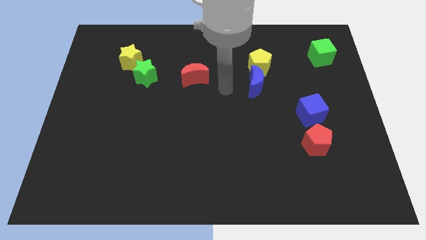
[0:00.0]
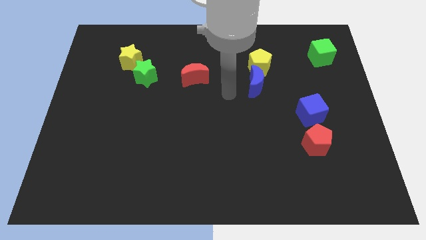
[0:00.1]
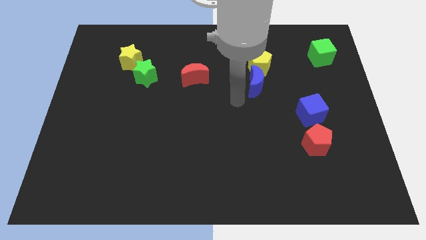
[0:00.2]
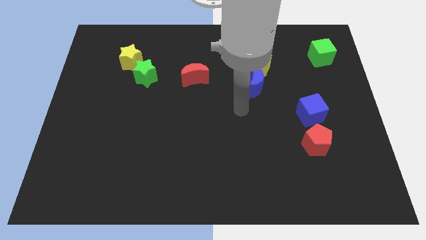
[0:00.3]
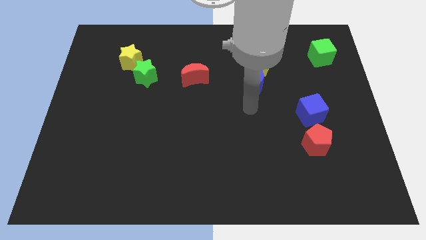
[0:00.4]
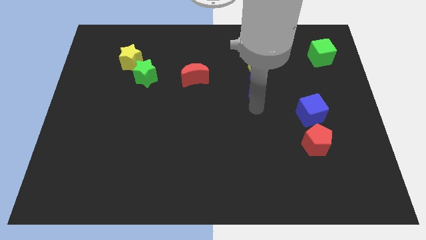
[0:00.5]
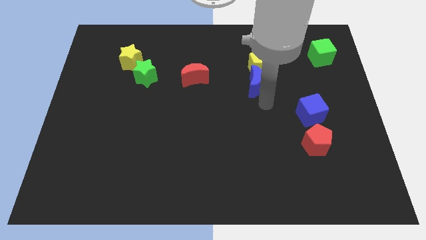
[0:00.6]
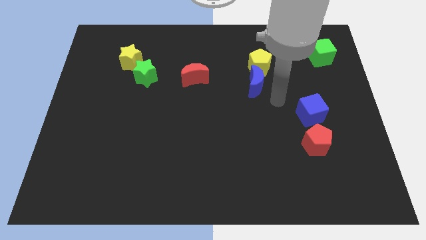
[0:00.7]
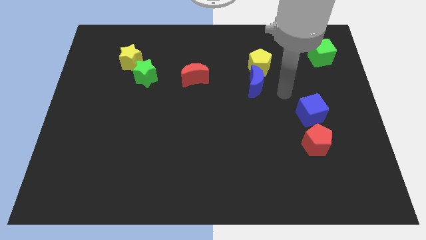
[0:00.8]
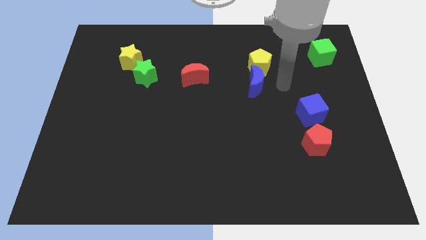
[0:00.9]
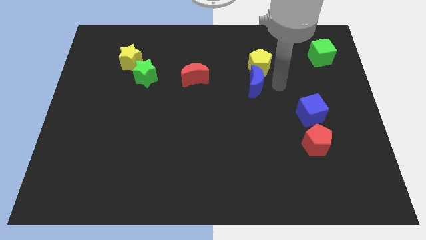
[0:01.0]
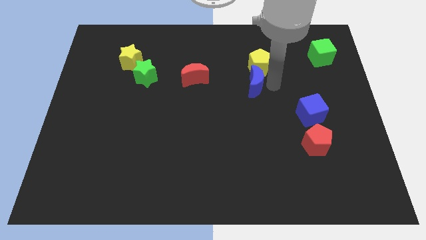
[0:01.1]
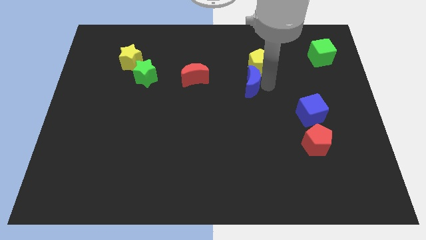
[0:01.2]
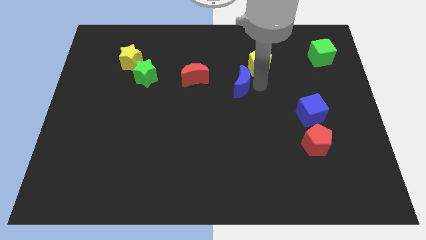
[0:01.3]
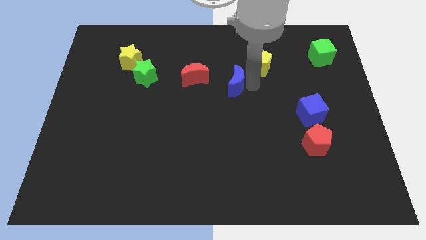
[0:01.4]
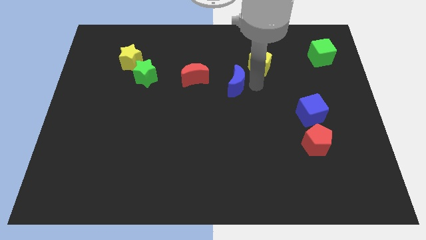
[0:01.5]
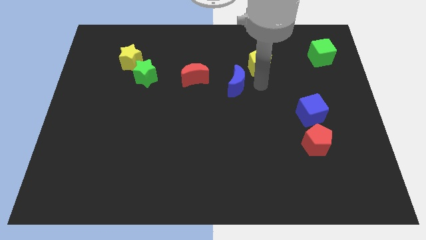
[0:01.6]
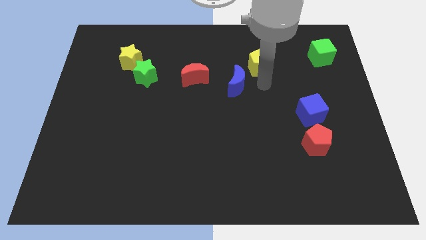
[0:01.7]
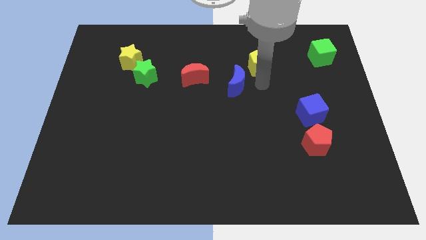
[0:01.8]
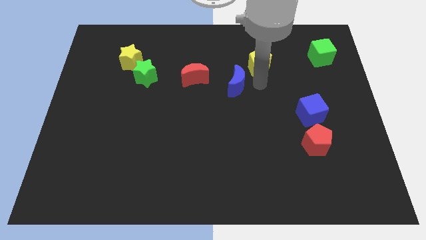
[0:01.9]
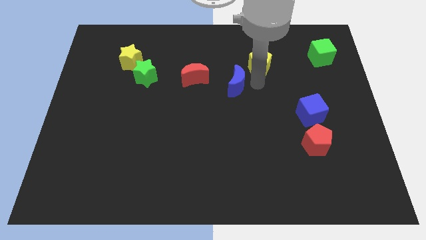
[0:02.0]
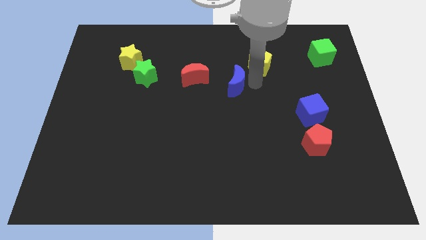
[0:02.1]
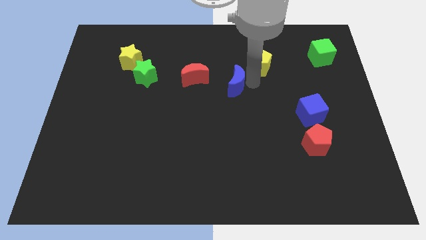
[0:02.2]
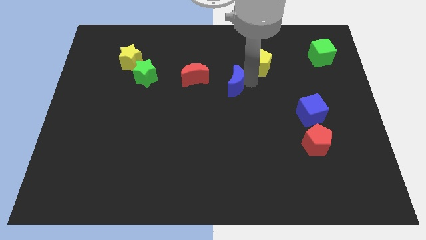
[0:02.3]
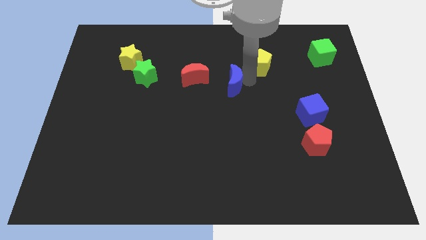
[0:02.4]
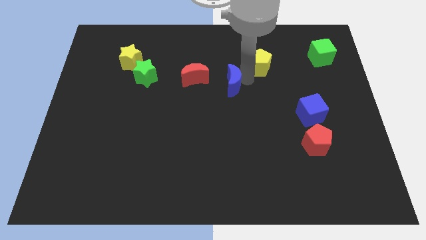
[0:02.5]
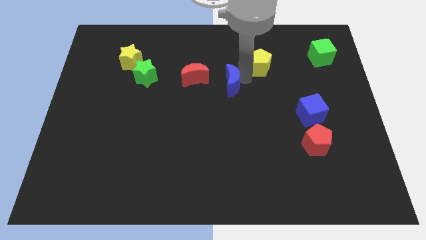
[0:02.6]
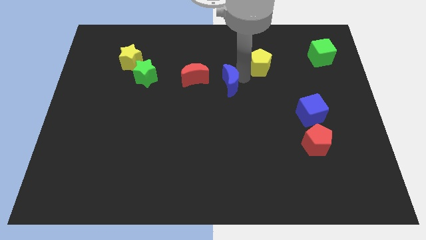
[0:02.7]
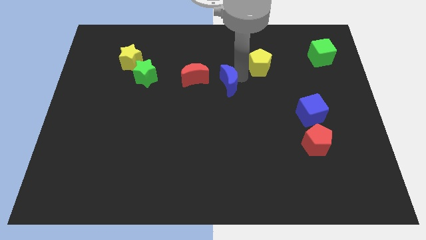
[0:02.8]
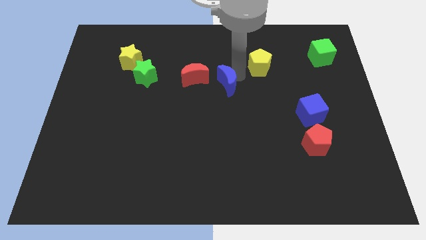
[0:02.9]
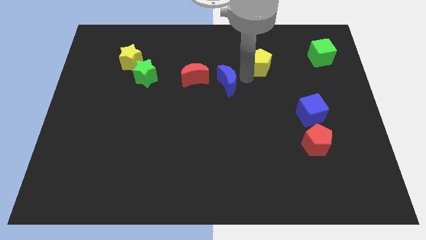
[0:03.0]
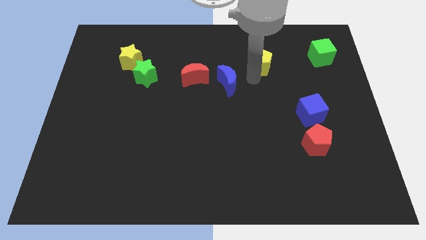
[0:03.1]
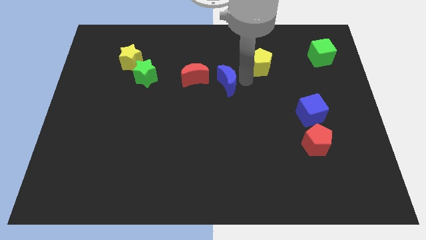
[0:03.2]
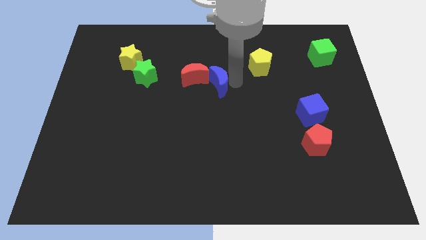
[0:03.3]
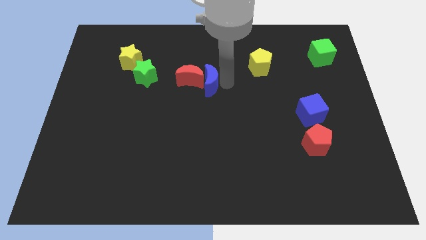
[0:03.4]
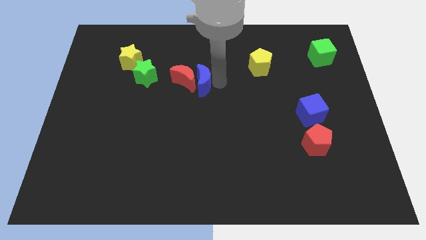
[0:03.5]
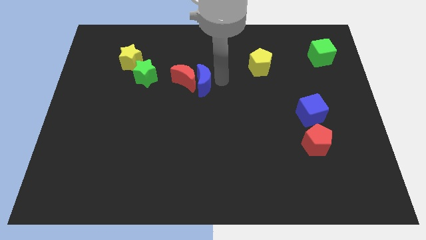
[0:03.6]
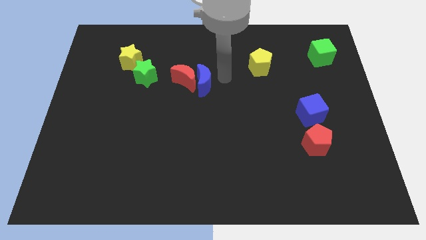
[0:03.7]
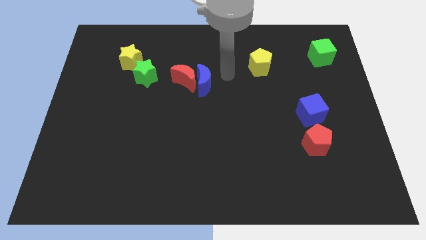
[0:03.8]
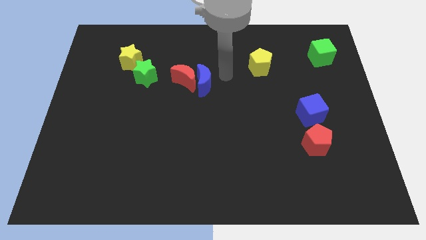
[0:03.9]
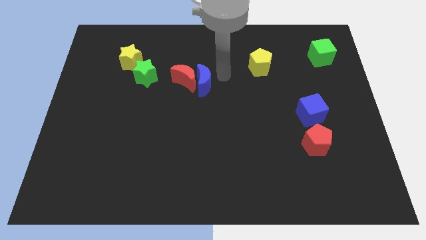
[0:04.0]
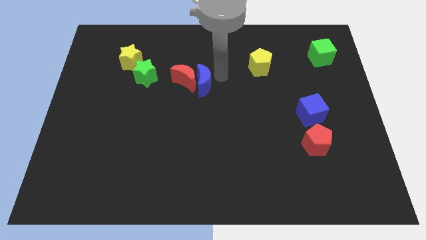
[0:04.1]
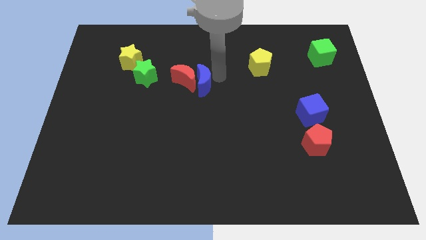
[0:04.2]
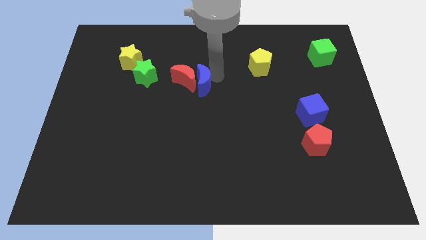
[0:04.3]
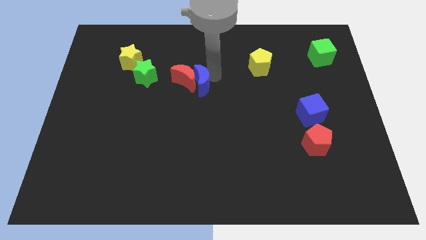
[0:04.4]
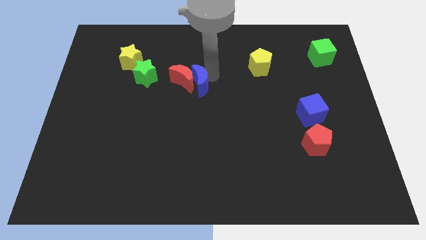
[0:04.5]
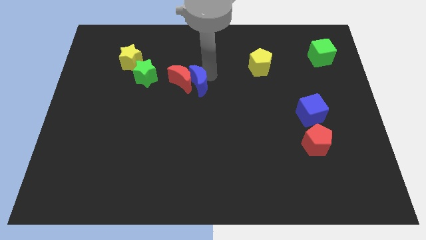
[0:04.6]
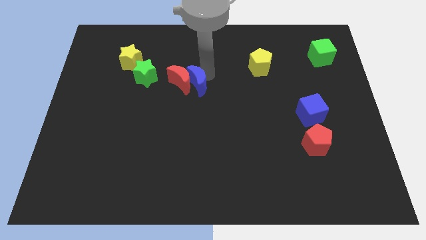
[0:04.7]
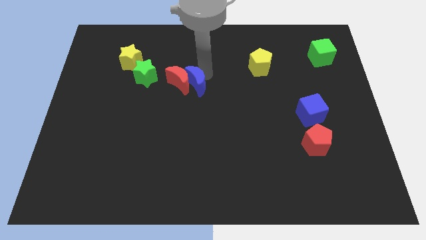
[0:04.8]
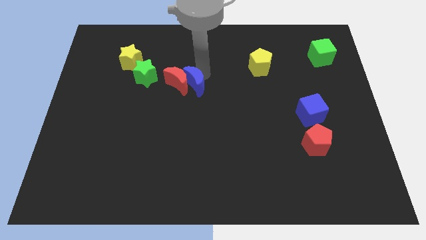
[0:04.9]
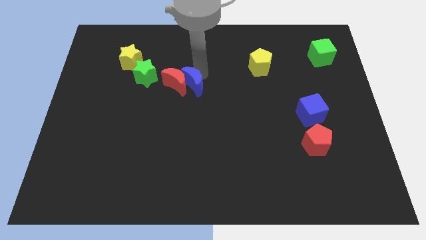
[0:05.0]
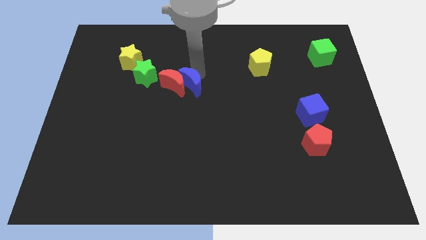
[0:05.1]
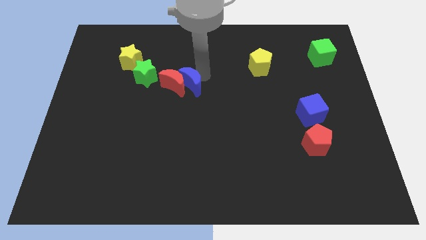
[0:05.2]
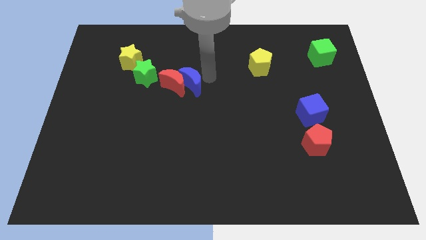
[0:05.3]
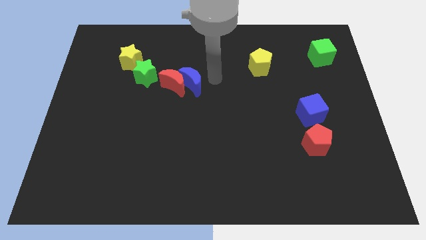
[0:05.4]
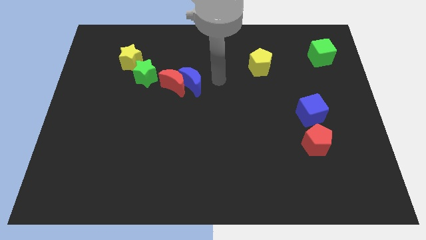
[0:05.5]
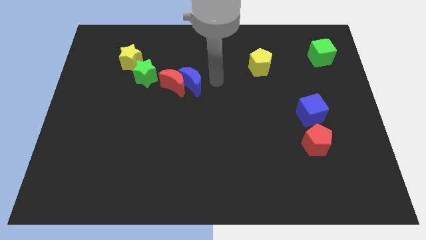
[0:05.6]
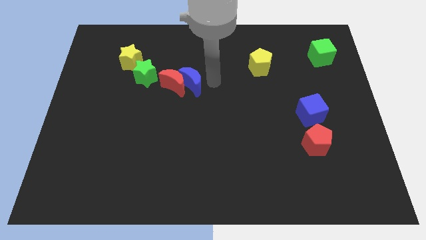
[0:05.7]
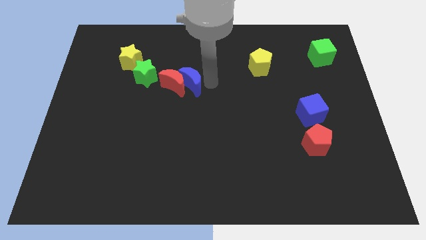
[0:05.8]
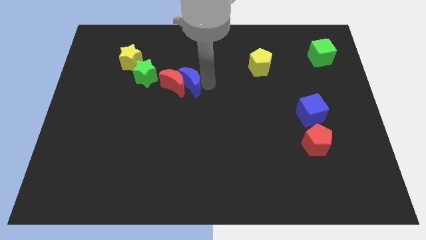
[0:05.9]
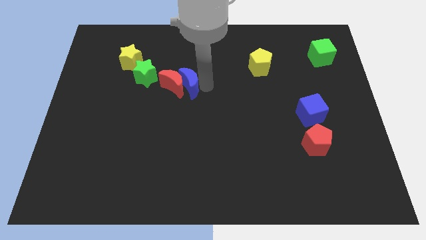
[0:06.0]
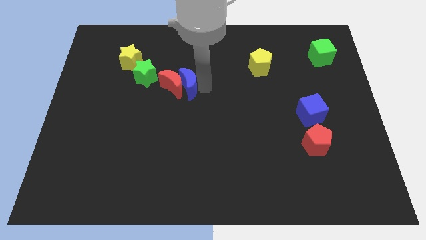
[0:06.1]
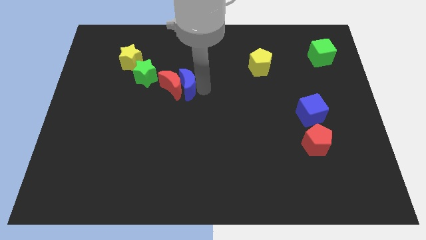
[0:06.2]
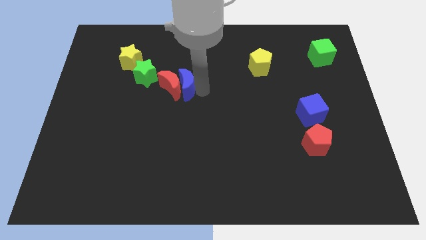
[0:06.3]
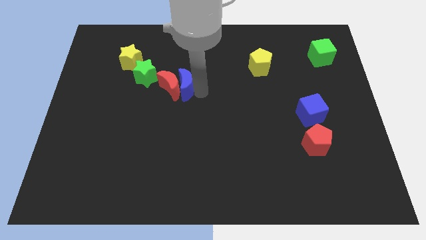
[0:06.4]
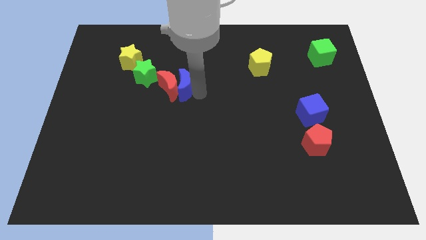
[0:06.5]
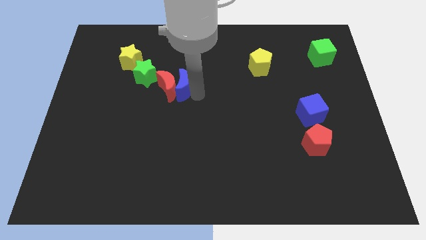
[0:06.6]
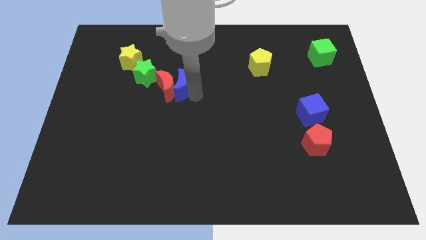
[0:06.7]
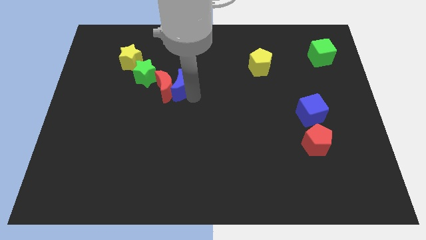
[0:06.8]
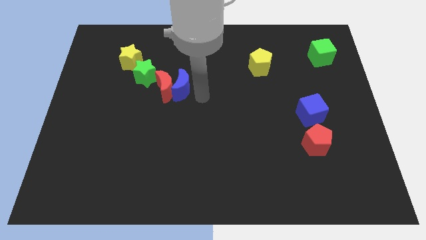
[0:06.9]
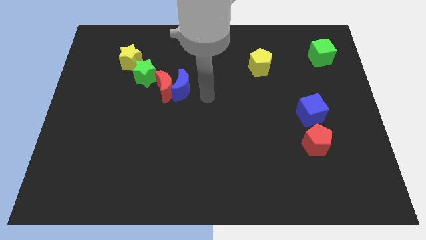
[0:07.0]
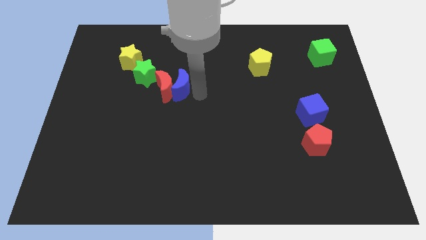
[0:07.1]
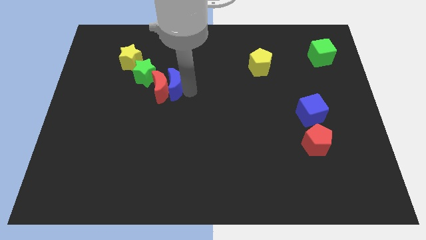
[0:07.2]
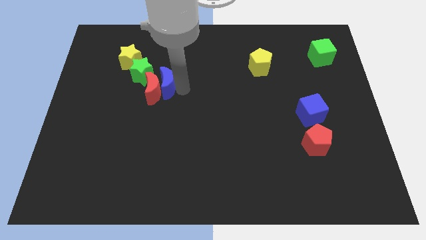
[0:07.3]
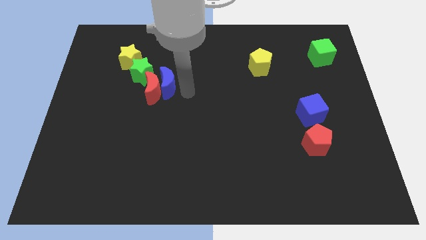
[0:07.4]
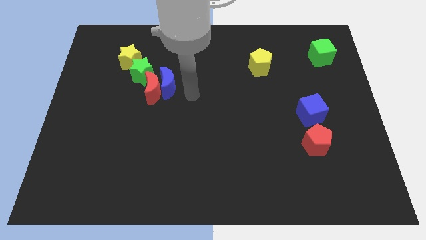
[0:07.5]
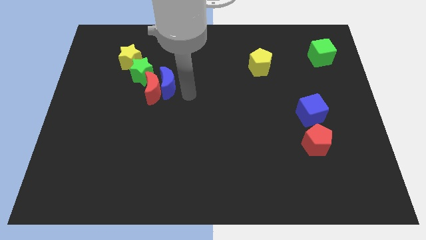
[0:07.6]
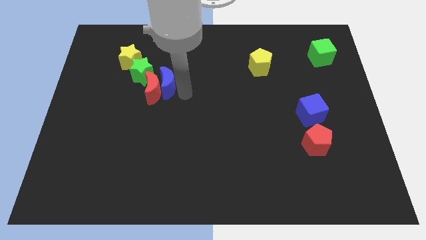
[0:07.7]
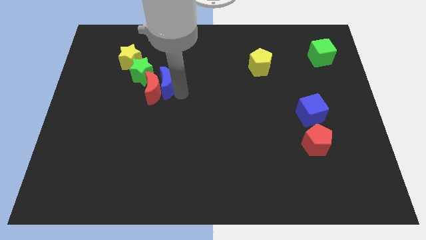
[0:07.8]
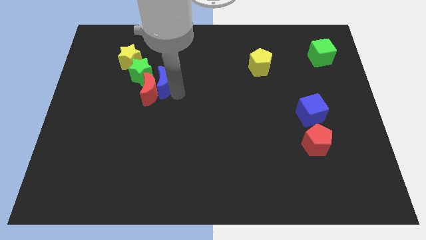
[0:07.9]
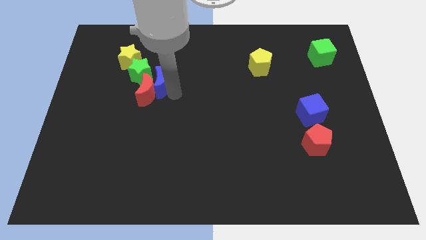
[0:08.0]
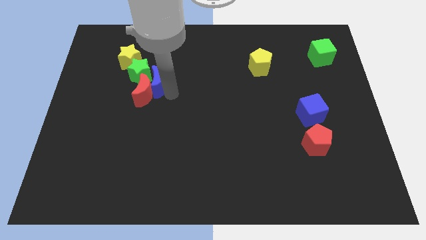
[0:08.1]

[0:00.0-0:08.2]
slide the blue moon next to the green star
